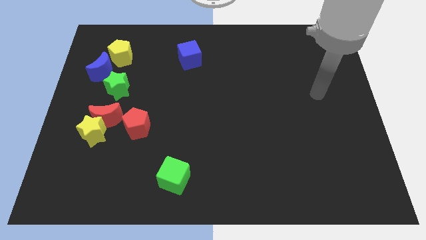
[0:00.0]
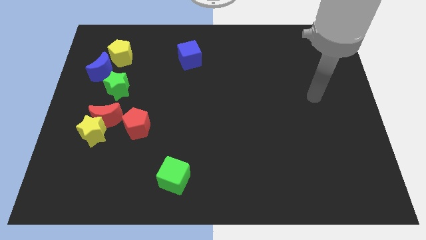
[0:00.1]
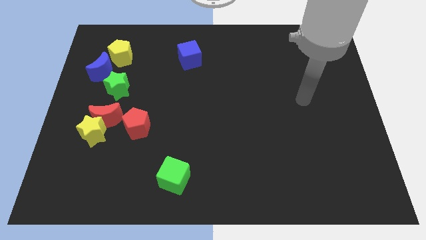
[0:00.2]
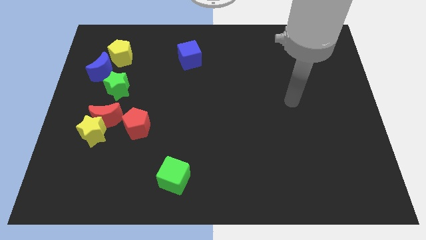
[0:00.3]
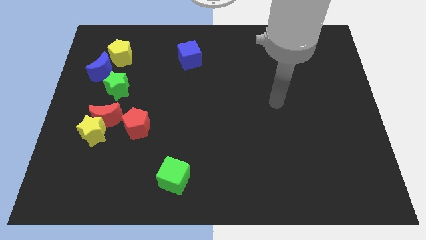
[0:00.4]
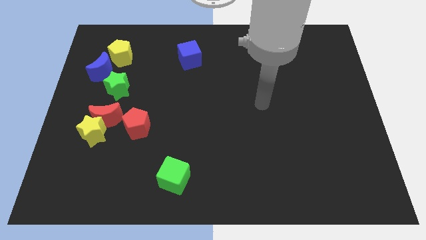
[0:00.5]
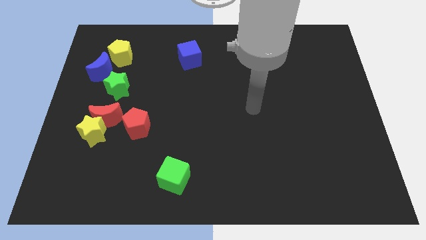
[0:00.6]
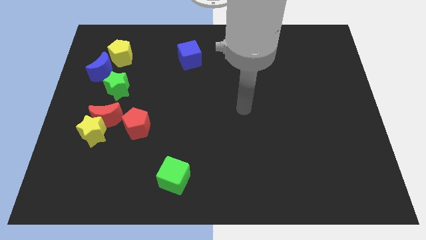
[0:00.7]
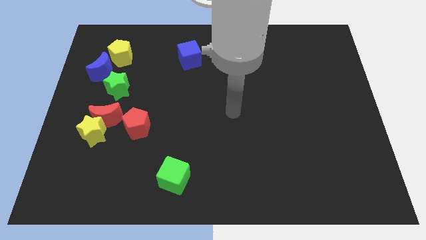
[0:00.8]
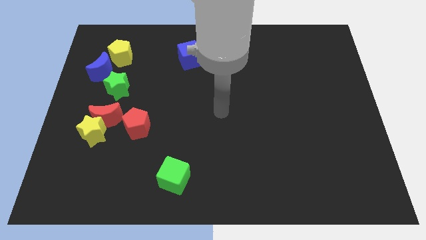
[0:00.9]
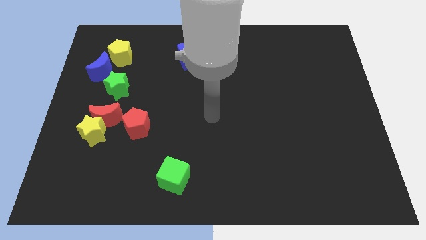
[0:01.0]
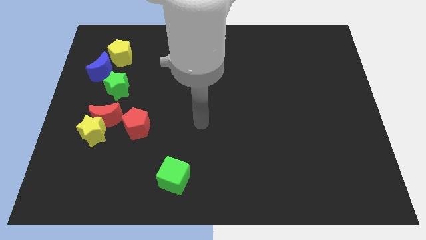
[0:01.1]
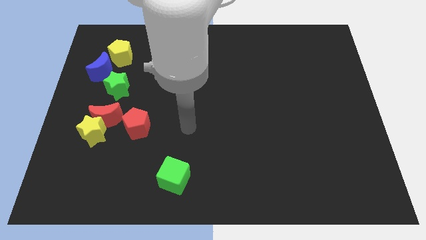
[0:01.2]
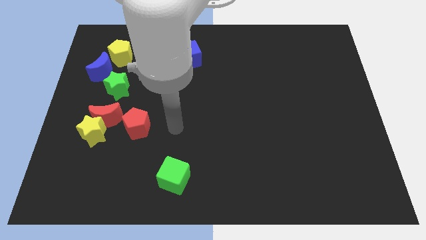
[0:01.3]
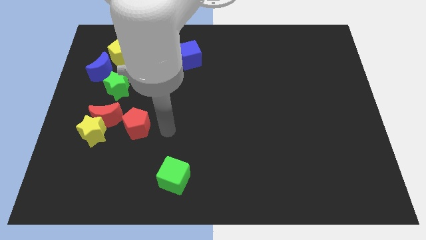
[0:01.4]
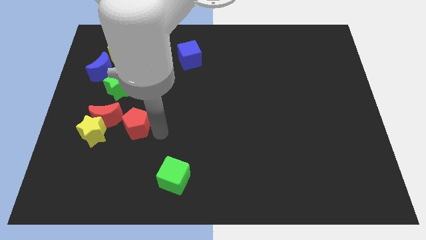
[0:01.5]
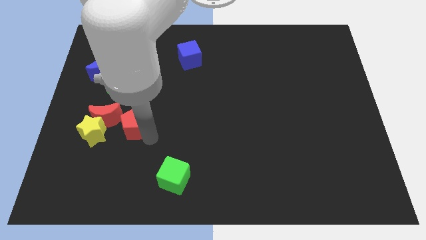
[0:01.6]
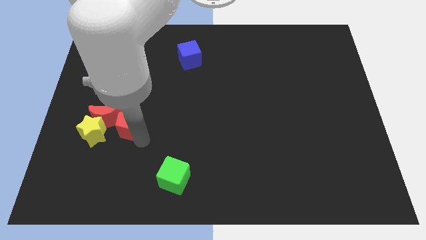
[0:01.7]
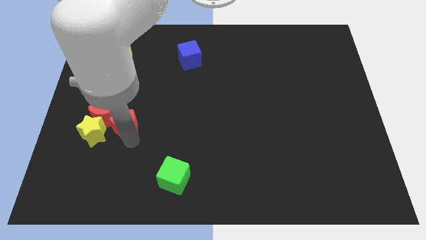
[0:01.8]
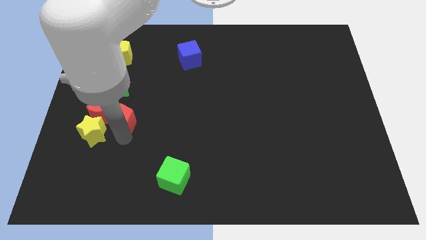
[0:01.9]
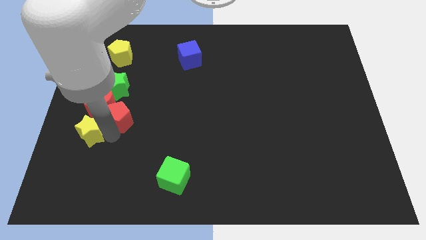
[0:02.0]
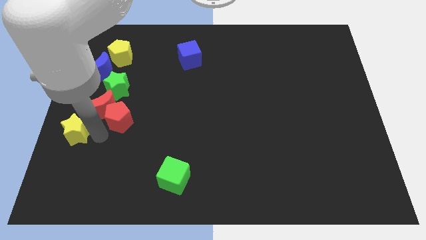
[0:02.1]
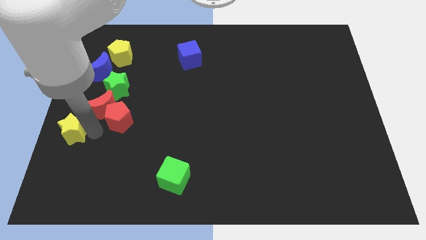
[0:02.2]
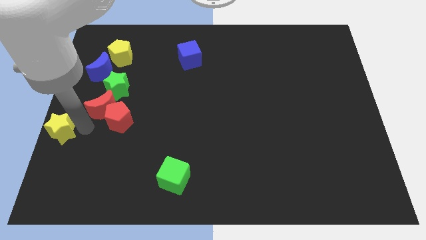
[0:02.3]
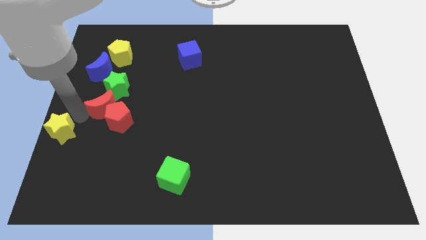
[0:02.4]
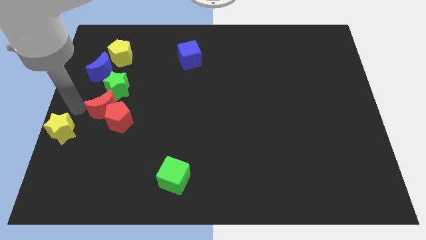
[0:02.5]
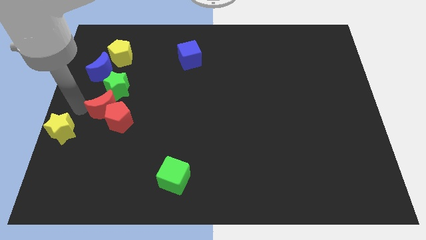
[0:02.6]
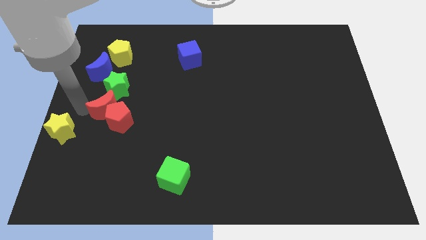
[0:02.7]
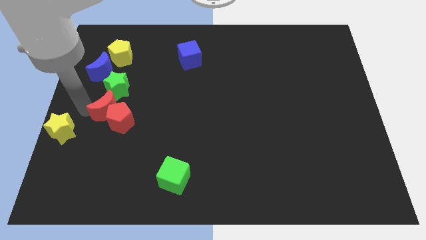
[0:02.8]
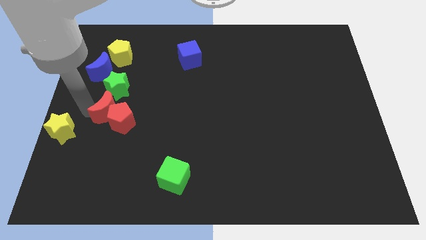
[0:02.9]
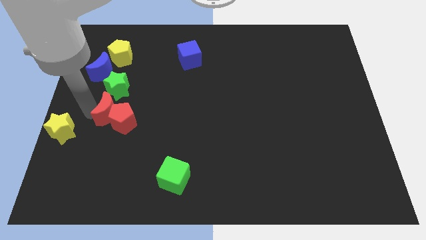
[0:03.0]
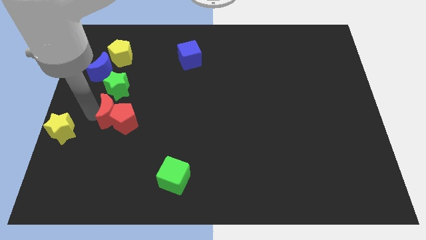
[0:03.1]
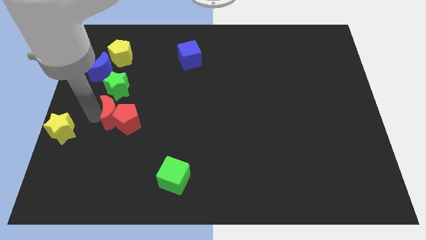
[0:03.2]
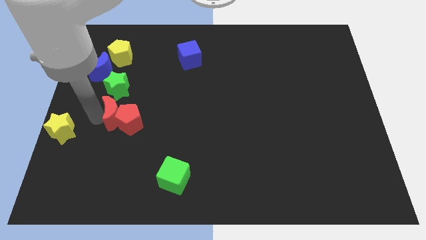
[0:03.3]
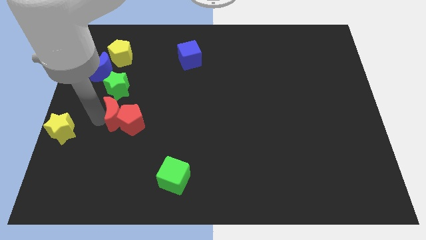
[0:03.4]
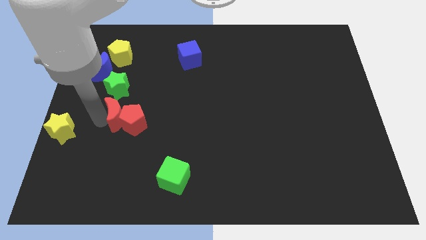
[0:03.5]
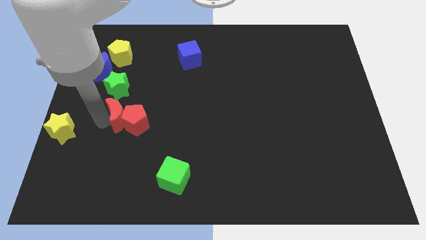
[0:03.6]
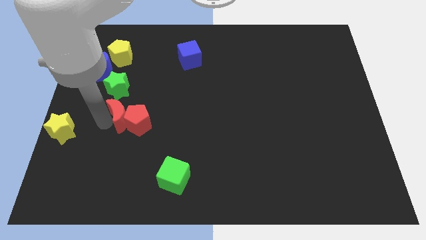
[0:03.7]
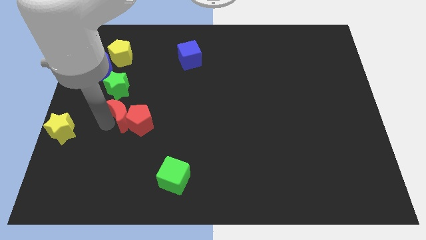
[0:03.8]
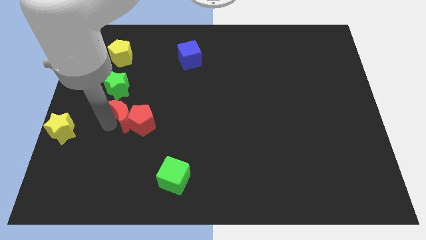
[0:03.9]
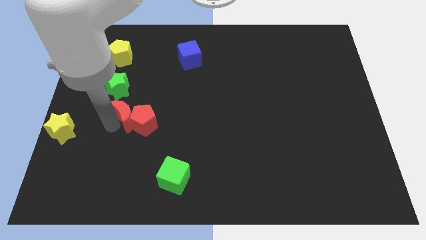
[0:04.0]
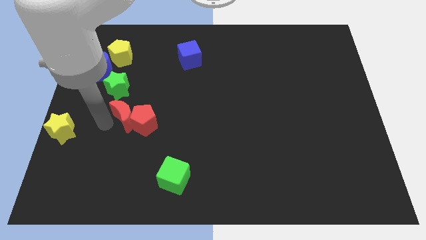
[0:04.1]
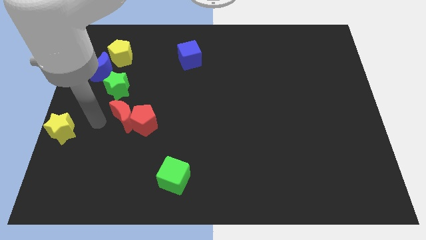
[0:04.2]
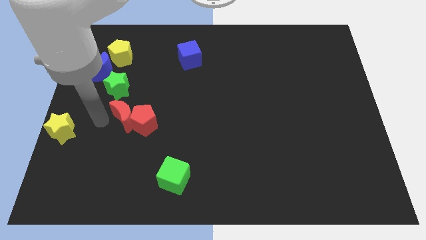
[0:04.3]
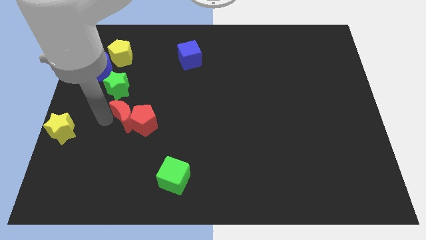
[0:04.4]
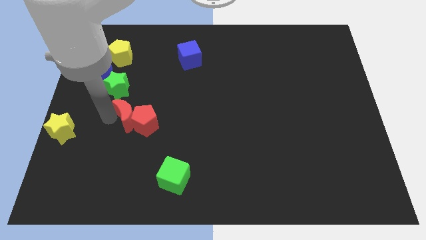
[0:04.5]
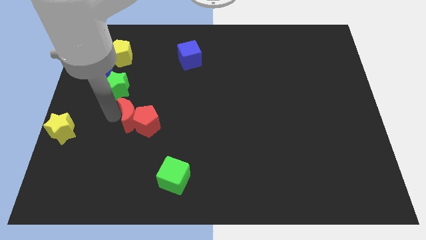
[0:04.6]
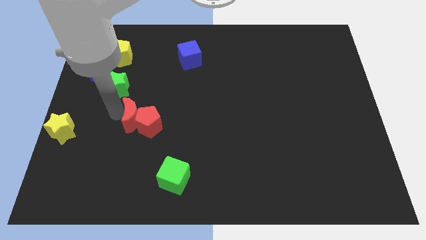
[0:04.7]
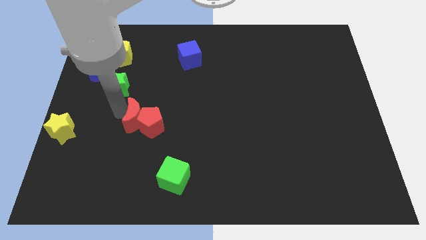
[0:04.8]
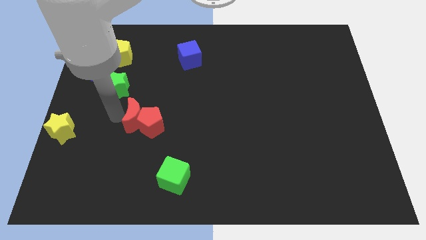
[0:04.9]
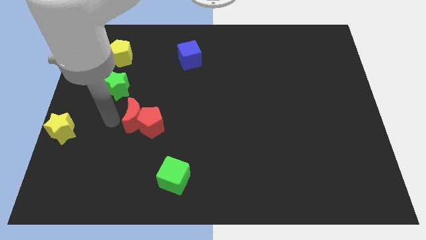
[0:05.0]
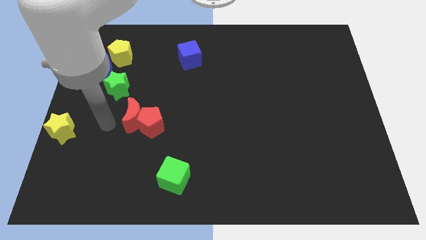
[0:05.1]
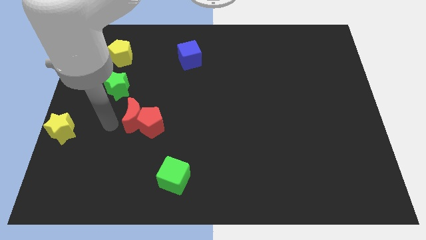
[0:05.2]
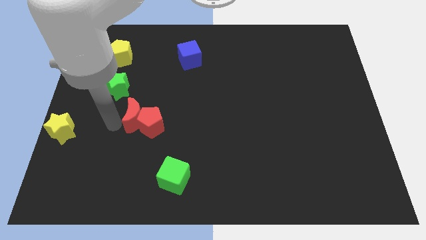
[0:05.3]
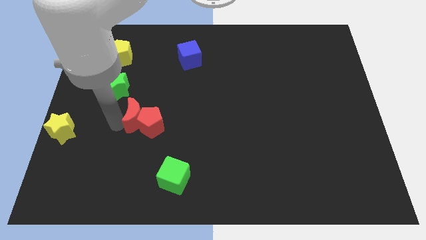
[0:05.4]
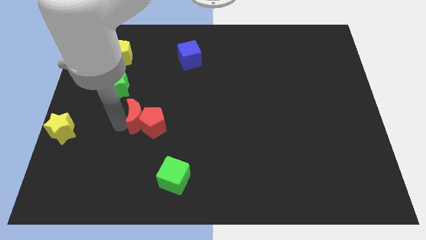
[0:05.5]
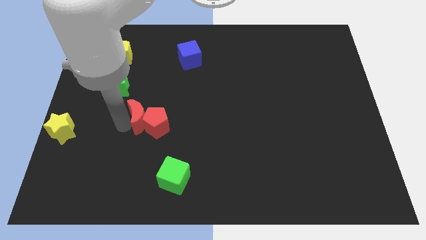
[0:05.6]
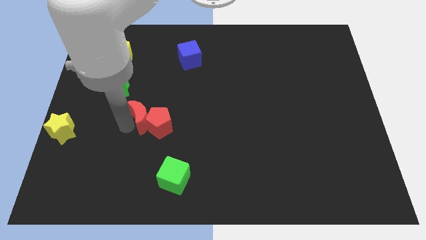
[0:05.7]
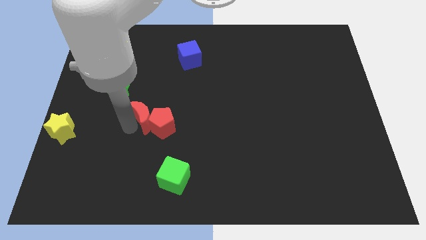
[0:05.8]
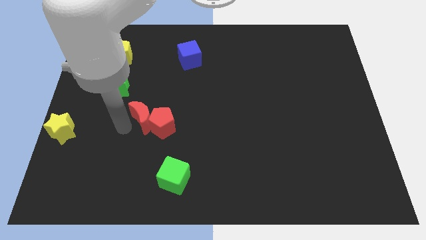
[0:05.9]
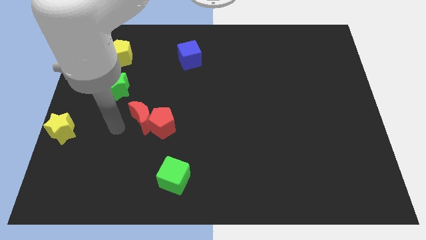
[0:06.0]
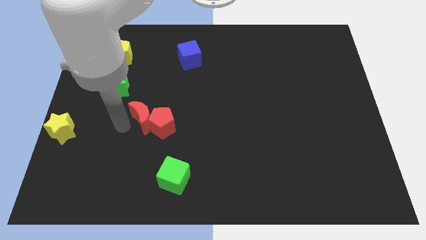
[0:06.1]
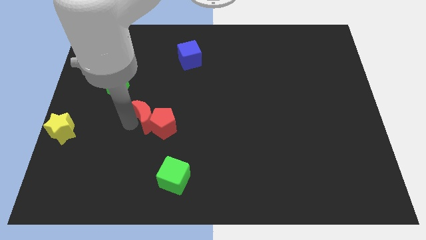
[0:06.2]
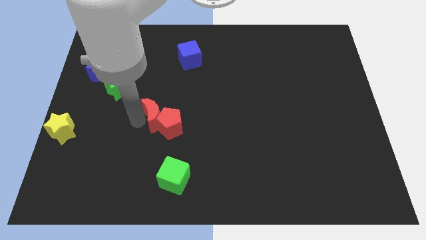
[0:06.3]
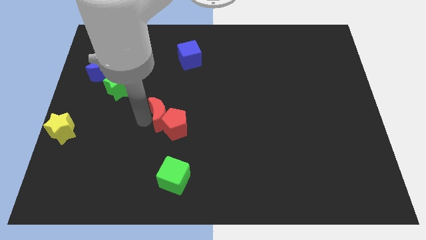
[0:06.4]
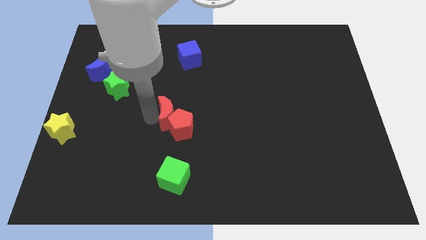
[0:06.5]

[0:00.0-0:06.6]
push the red moon to the center of the board
